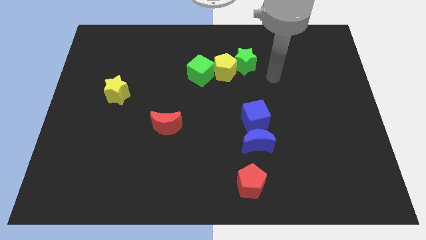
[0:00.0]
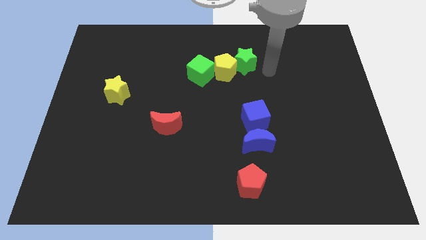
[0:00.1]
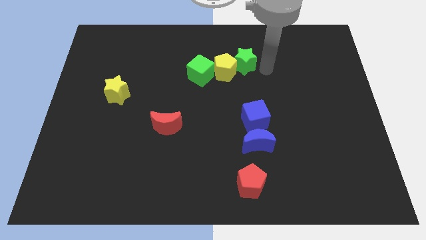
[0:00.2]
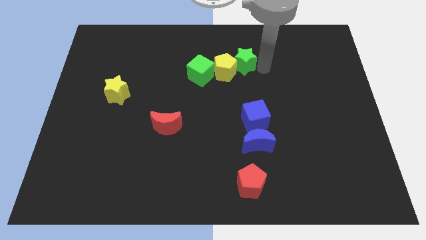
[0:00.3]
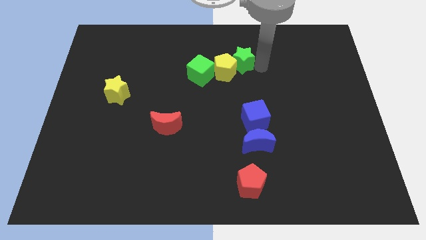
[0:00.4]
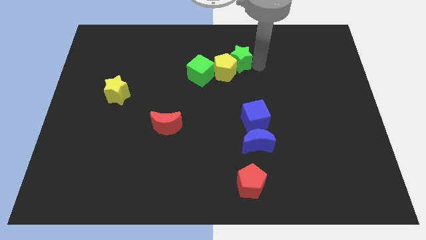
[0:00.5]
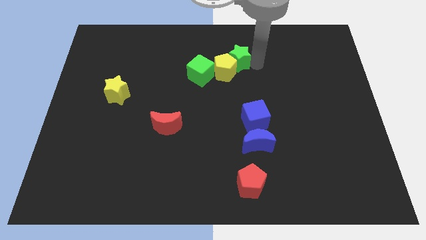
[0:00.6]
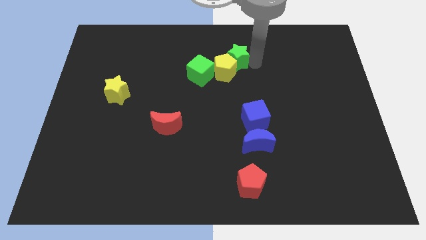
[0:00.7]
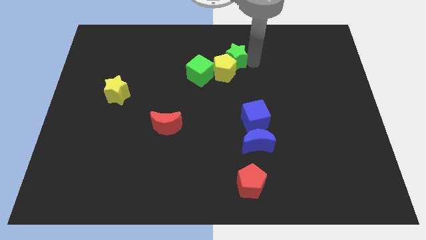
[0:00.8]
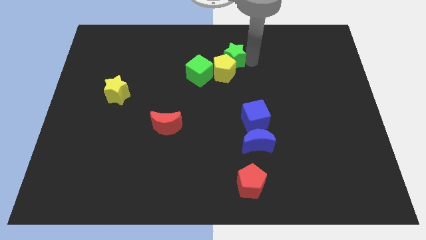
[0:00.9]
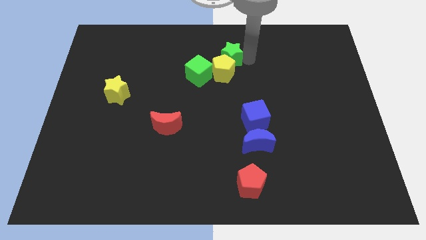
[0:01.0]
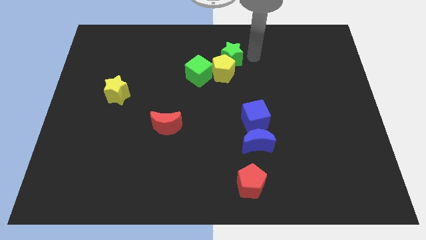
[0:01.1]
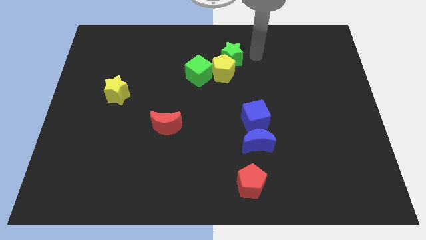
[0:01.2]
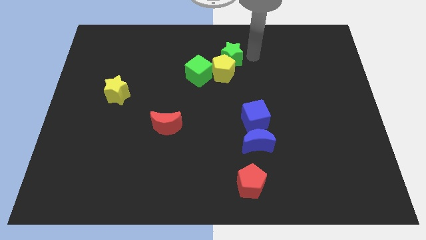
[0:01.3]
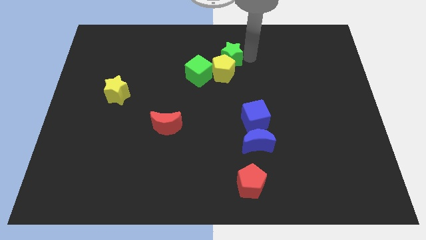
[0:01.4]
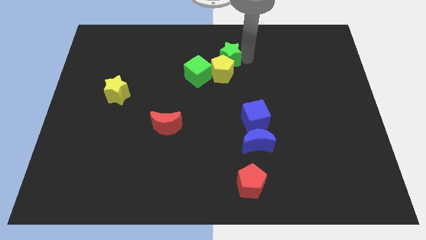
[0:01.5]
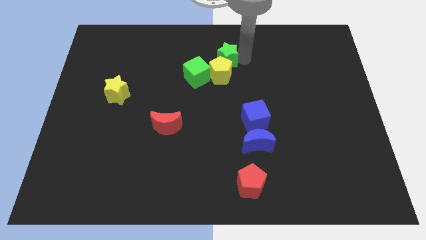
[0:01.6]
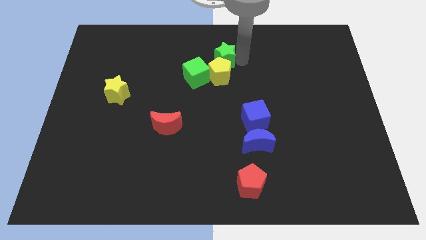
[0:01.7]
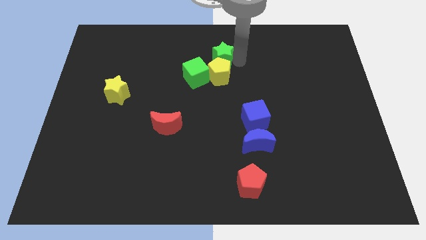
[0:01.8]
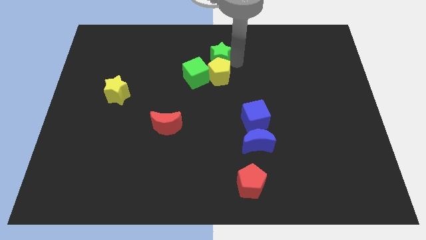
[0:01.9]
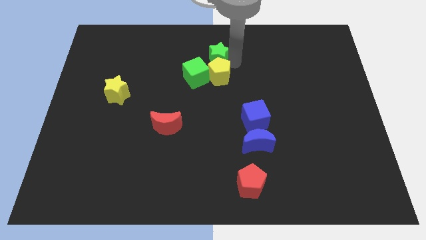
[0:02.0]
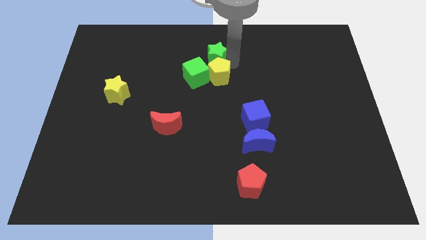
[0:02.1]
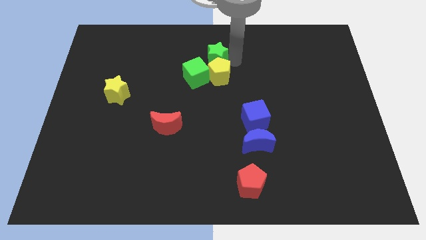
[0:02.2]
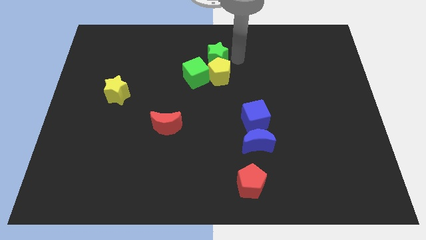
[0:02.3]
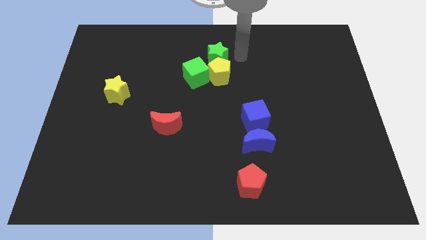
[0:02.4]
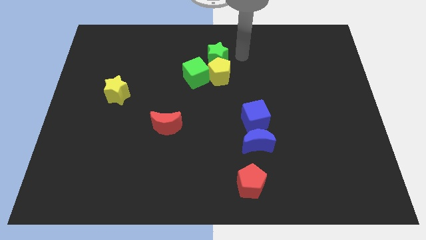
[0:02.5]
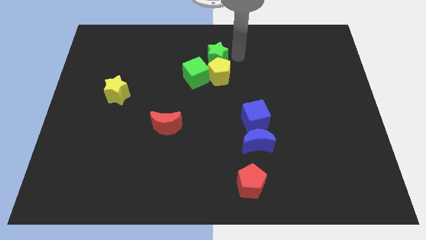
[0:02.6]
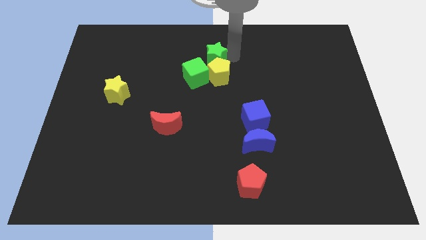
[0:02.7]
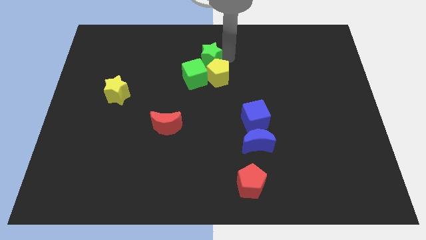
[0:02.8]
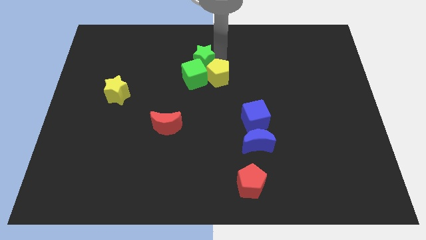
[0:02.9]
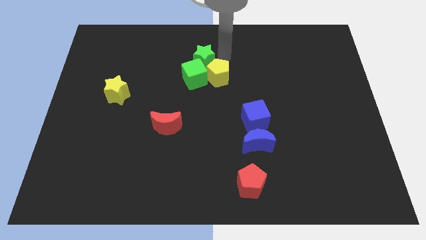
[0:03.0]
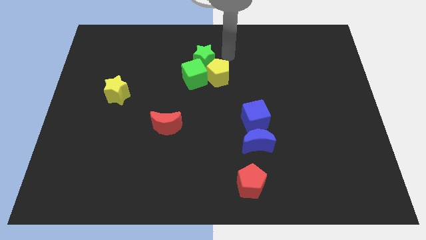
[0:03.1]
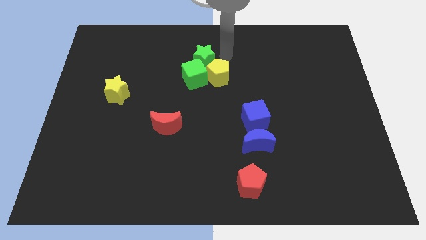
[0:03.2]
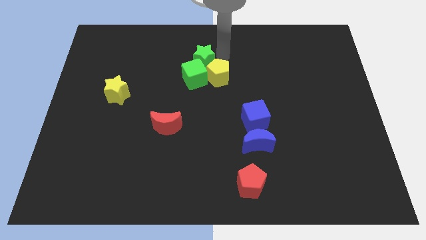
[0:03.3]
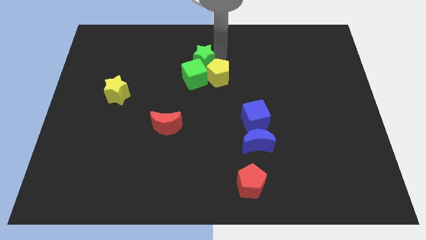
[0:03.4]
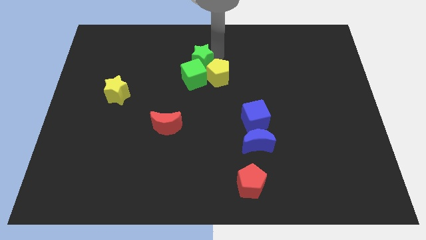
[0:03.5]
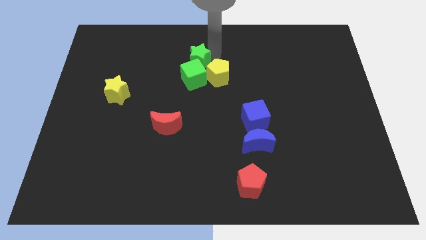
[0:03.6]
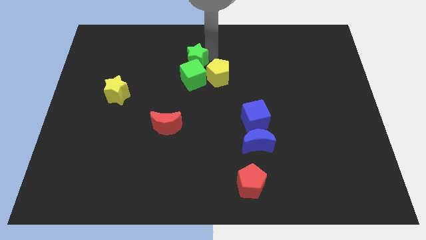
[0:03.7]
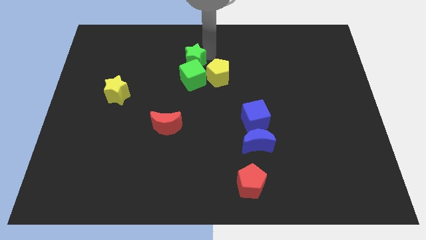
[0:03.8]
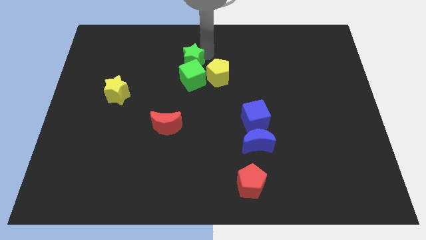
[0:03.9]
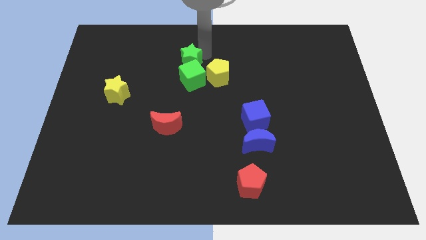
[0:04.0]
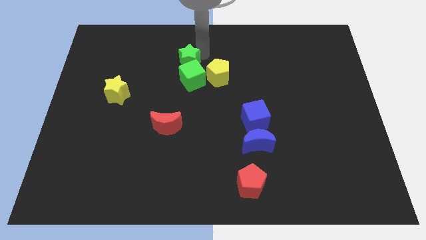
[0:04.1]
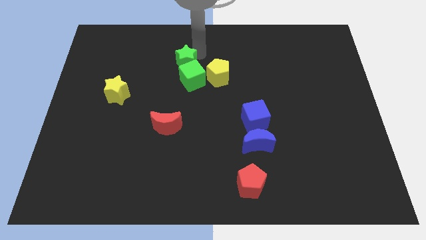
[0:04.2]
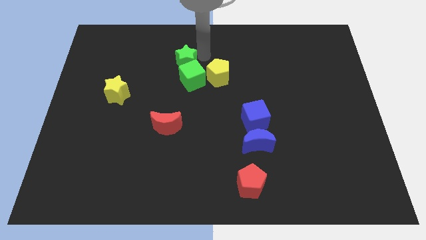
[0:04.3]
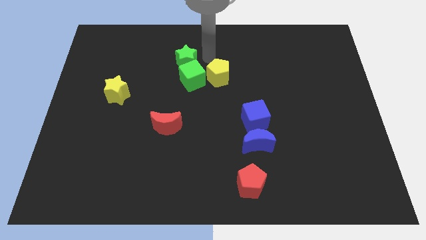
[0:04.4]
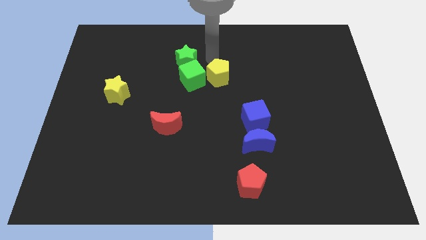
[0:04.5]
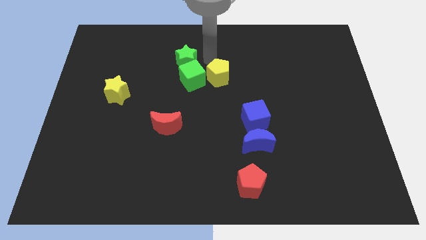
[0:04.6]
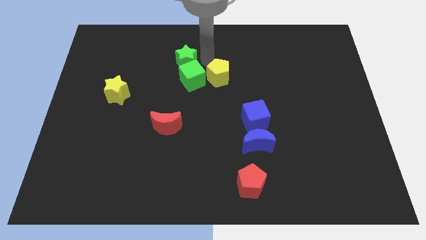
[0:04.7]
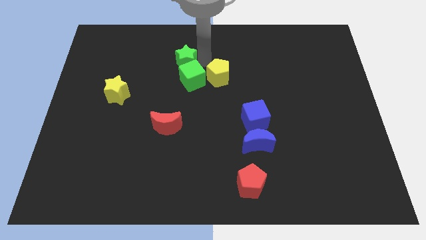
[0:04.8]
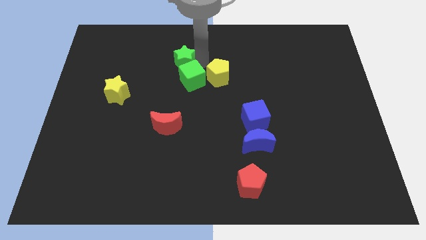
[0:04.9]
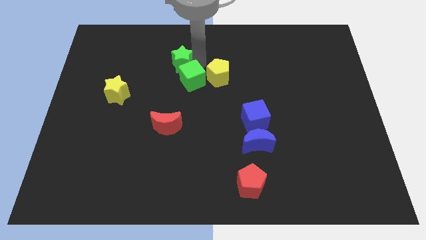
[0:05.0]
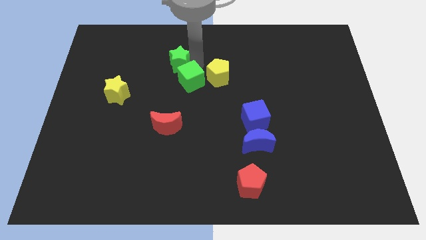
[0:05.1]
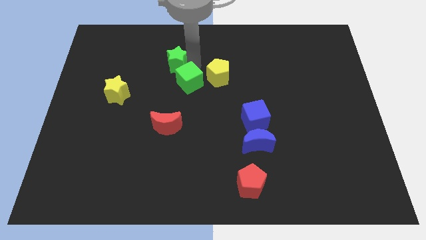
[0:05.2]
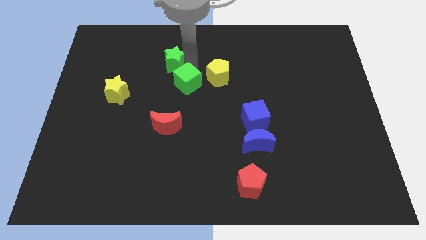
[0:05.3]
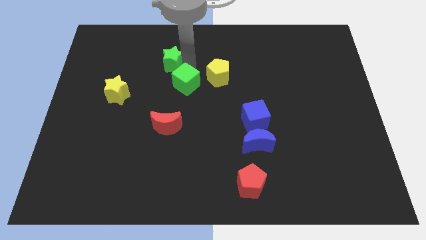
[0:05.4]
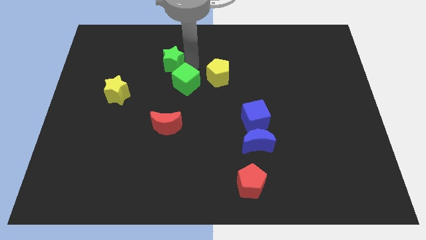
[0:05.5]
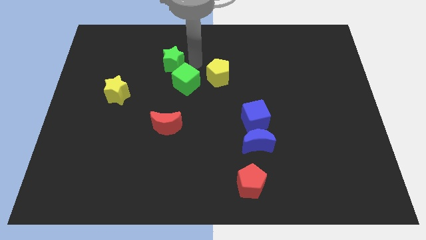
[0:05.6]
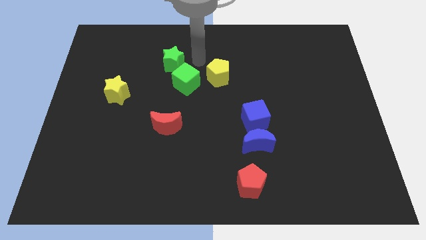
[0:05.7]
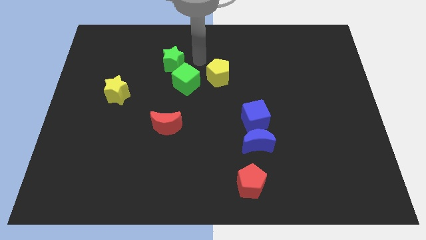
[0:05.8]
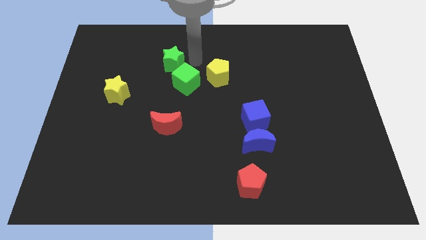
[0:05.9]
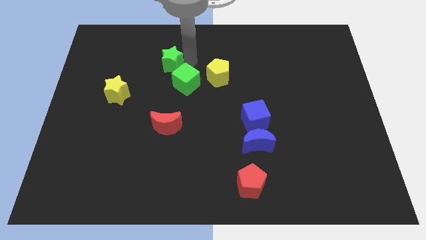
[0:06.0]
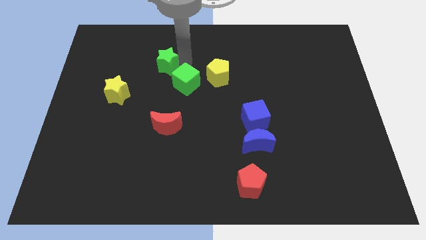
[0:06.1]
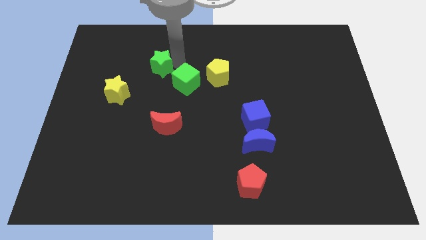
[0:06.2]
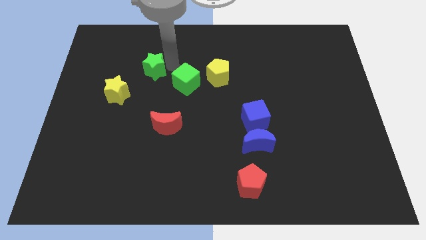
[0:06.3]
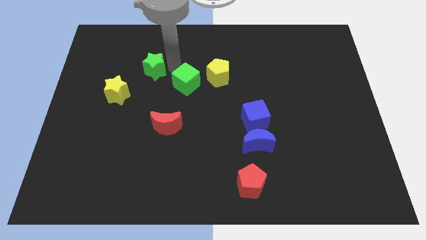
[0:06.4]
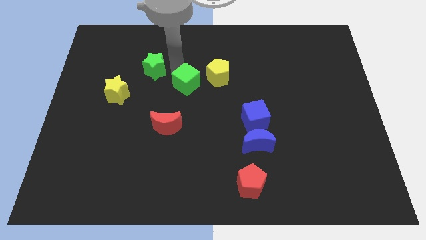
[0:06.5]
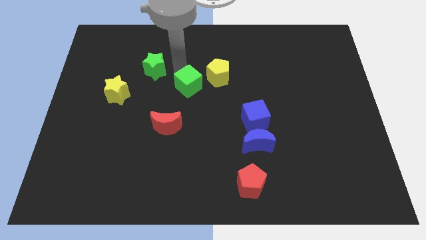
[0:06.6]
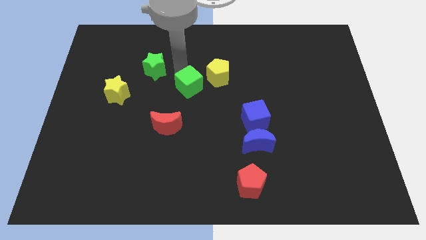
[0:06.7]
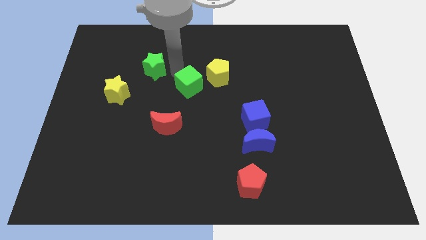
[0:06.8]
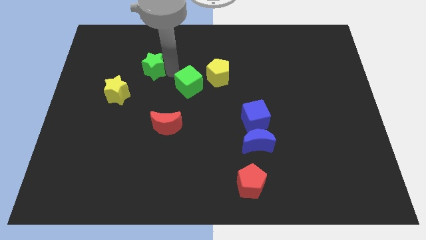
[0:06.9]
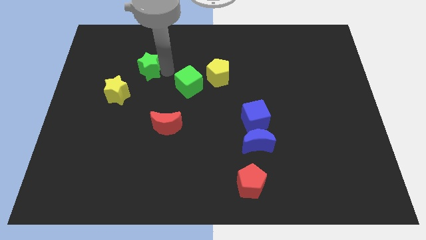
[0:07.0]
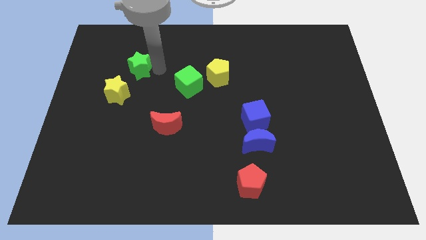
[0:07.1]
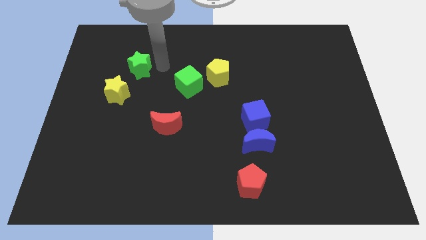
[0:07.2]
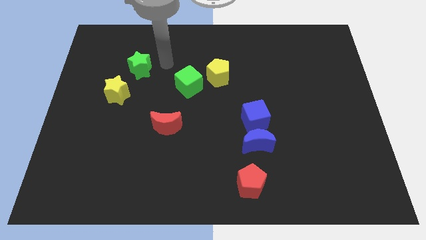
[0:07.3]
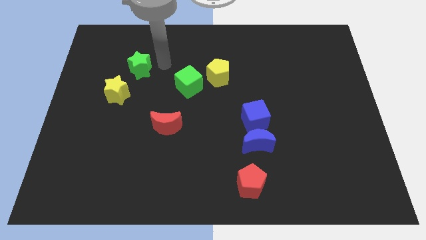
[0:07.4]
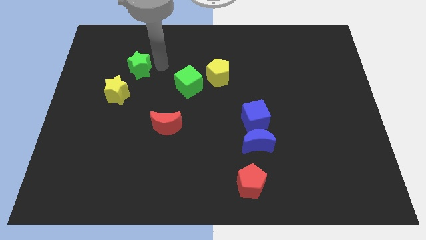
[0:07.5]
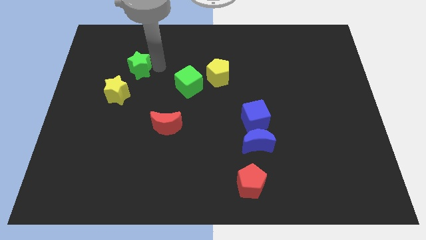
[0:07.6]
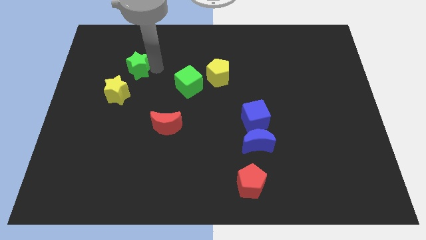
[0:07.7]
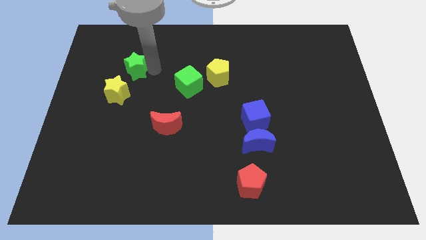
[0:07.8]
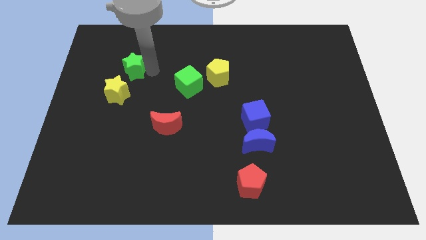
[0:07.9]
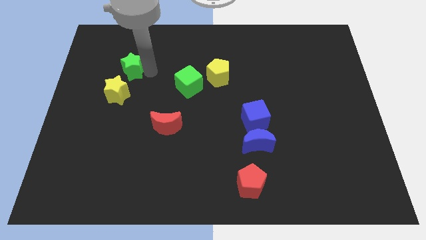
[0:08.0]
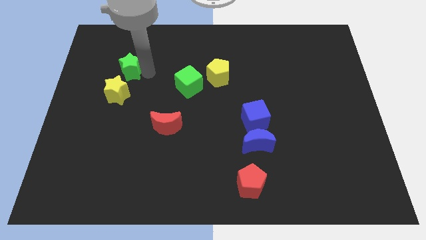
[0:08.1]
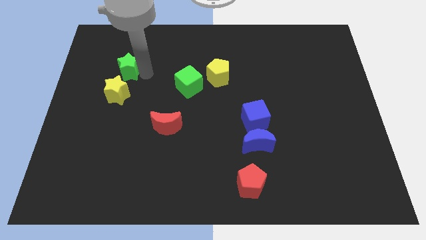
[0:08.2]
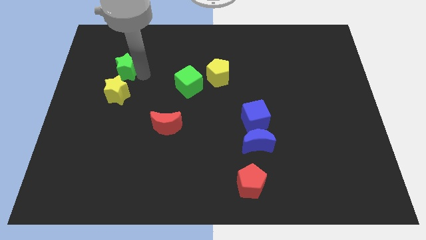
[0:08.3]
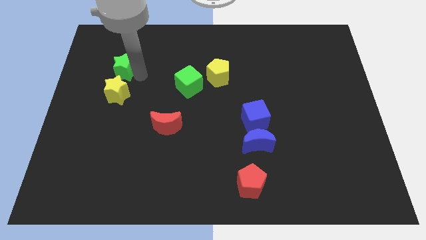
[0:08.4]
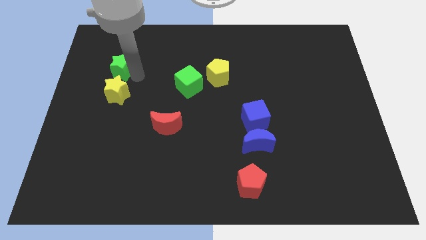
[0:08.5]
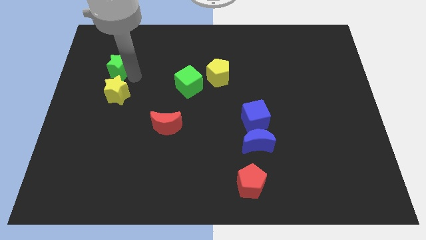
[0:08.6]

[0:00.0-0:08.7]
put the green star to the top left of the yellow star
